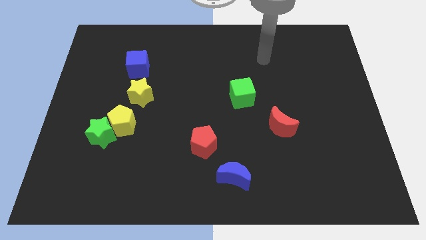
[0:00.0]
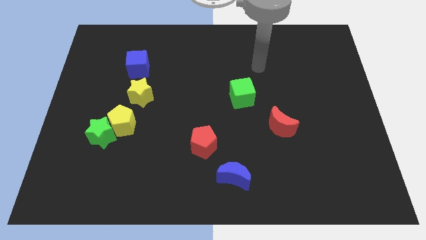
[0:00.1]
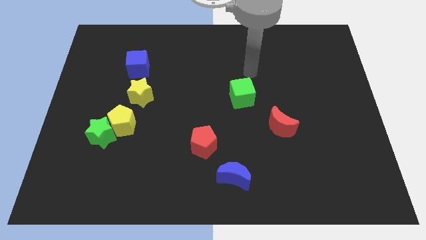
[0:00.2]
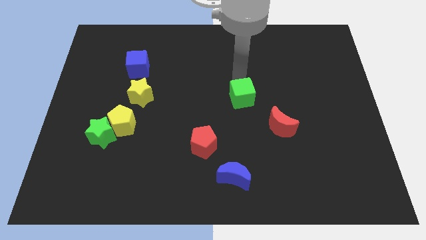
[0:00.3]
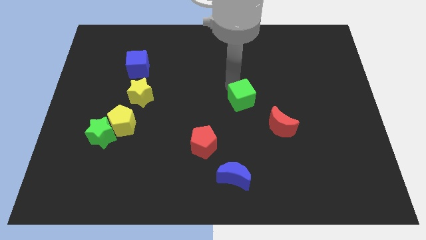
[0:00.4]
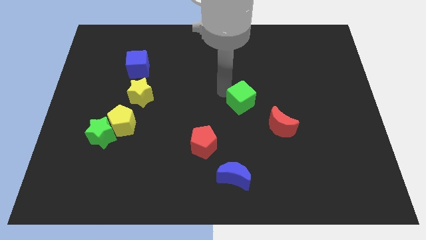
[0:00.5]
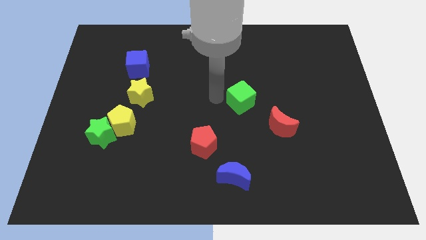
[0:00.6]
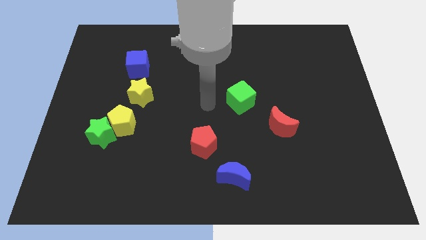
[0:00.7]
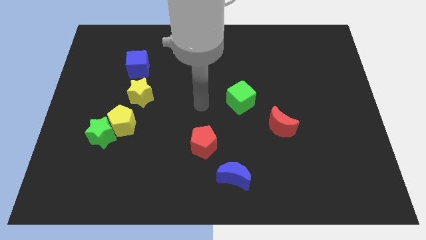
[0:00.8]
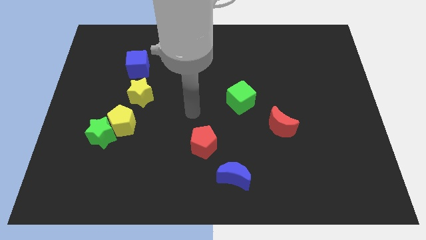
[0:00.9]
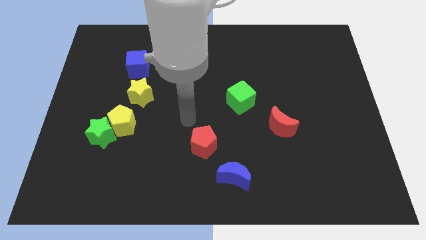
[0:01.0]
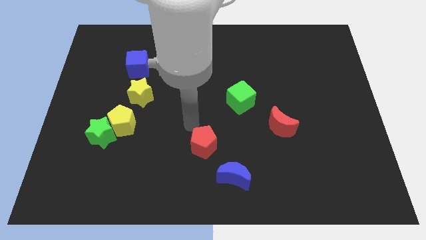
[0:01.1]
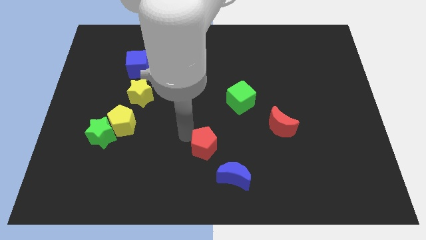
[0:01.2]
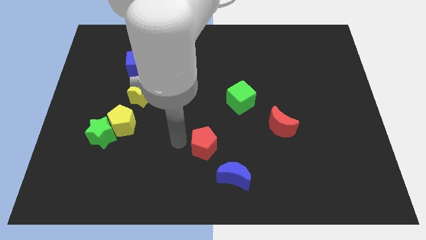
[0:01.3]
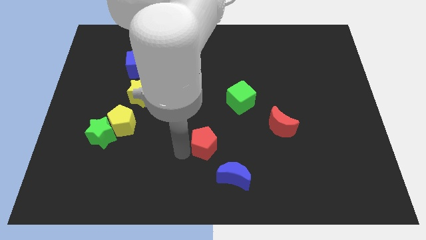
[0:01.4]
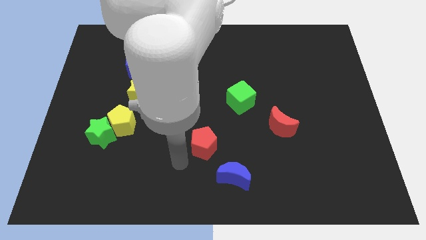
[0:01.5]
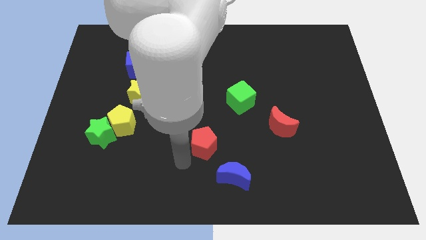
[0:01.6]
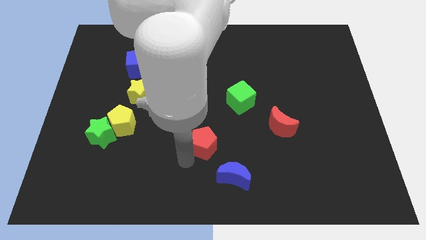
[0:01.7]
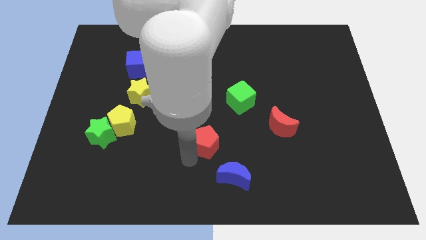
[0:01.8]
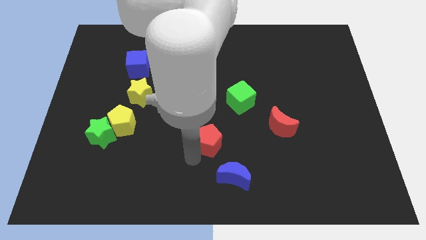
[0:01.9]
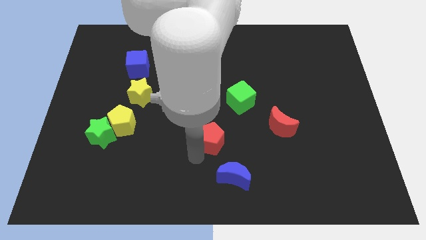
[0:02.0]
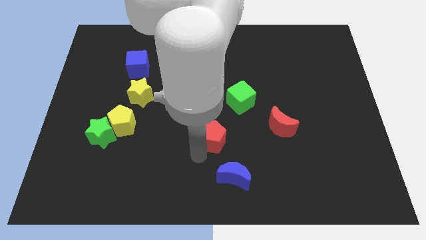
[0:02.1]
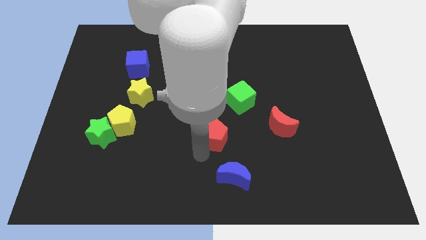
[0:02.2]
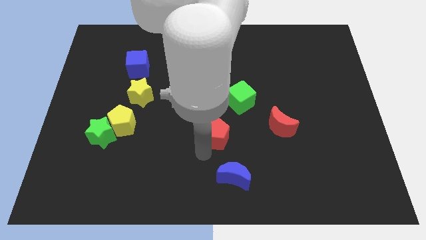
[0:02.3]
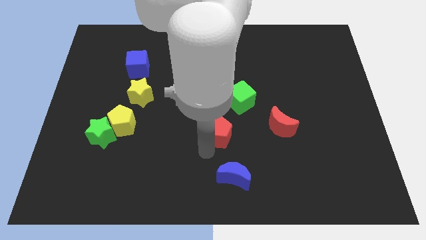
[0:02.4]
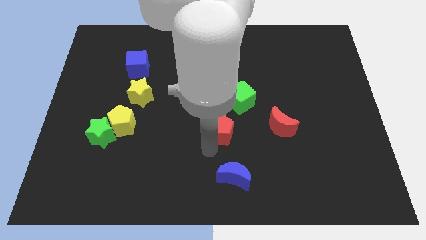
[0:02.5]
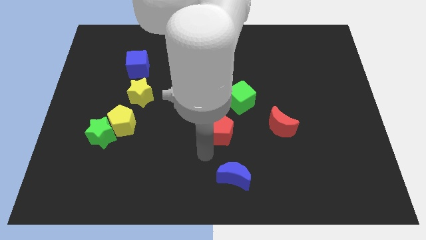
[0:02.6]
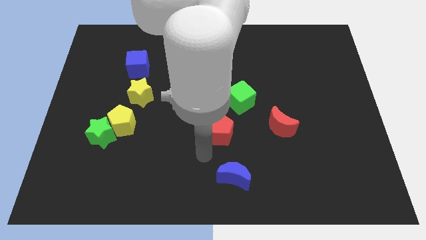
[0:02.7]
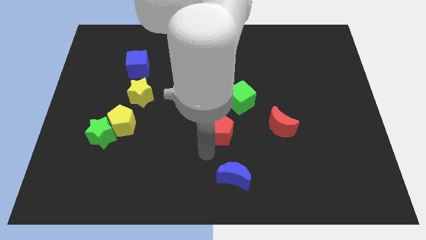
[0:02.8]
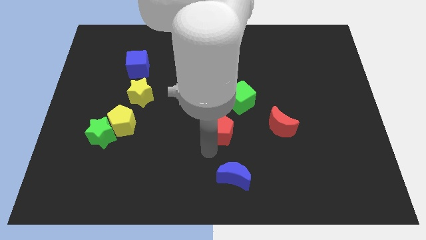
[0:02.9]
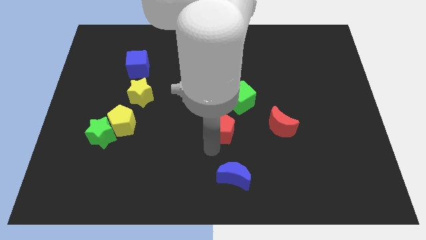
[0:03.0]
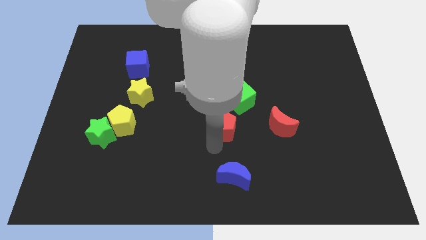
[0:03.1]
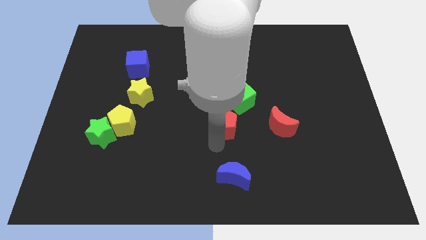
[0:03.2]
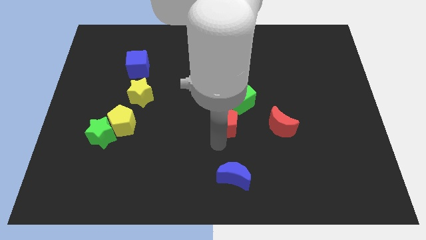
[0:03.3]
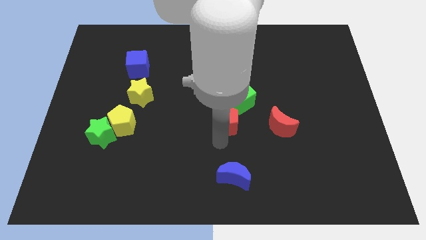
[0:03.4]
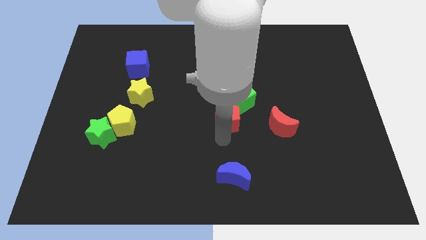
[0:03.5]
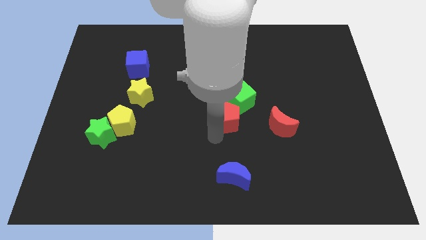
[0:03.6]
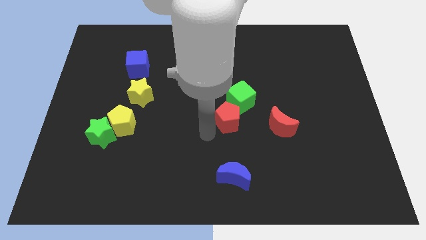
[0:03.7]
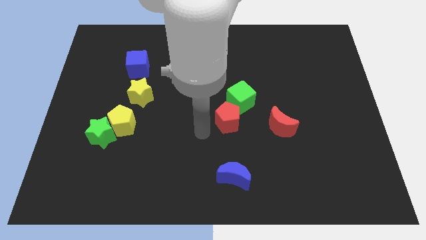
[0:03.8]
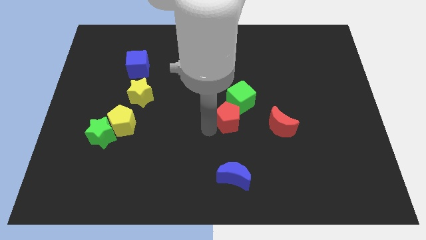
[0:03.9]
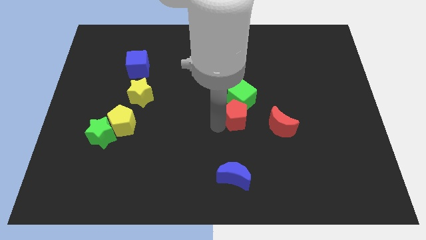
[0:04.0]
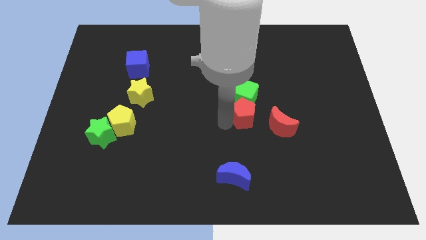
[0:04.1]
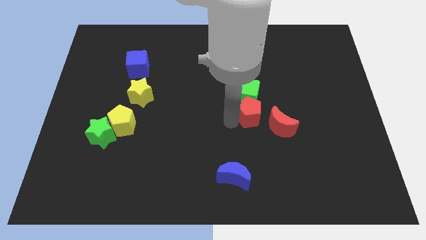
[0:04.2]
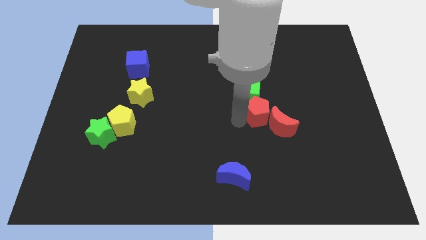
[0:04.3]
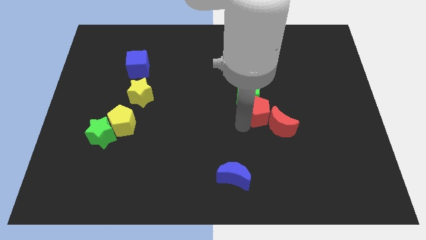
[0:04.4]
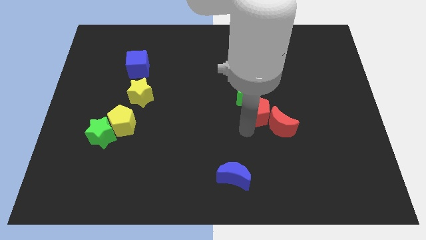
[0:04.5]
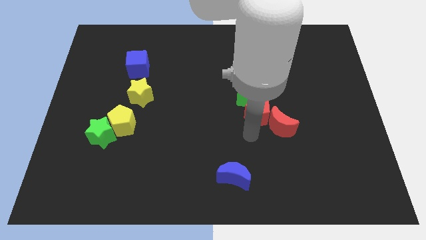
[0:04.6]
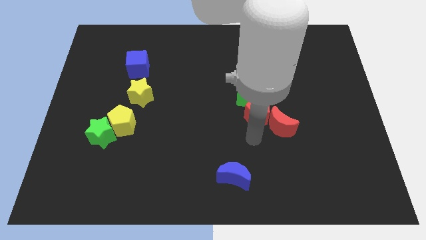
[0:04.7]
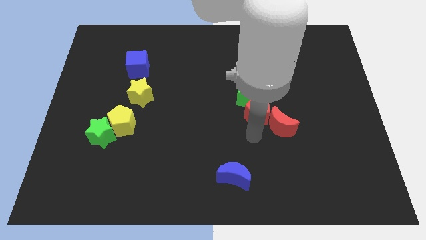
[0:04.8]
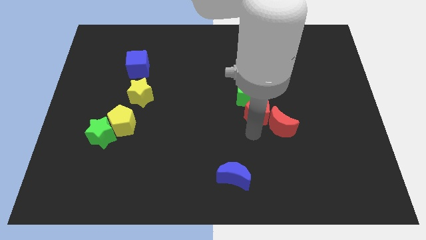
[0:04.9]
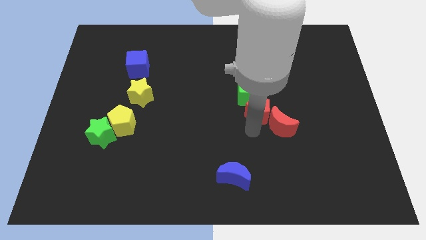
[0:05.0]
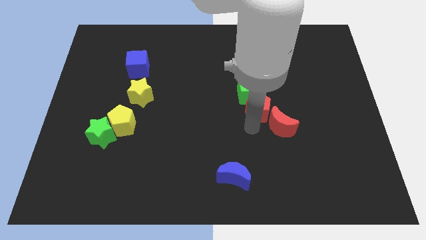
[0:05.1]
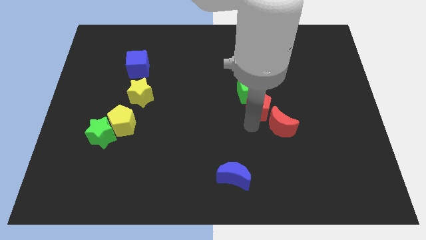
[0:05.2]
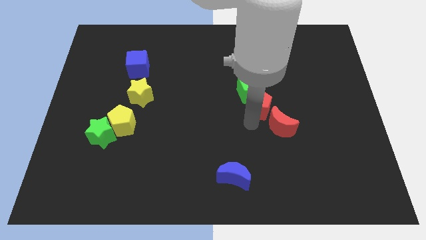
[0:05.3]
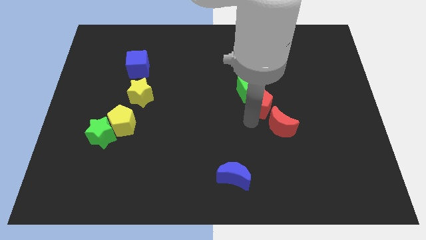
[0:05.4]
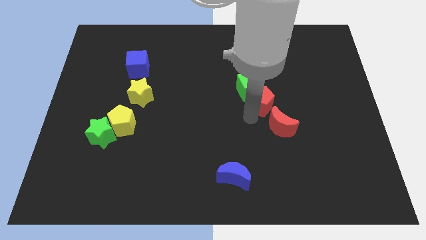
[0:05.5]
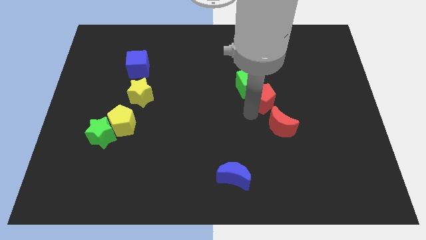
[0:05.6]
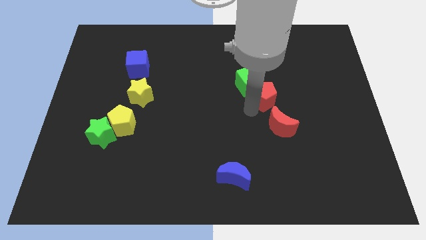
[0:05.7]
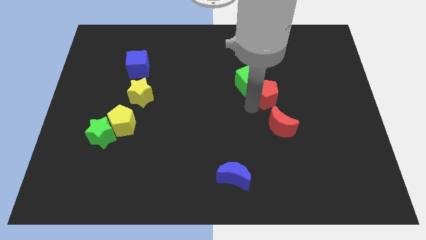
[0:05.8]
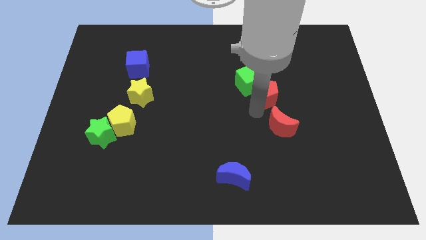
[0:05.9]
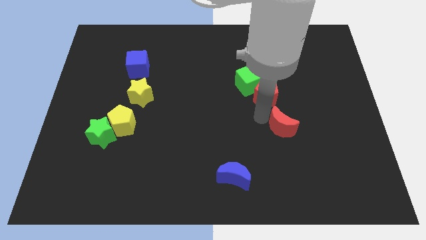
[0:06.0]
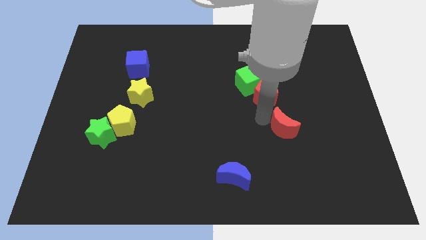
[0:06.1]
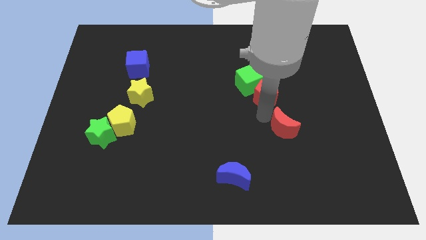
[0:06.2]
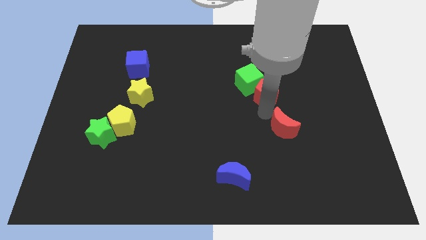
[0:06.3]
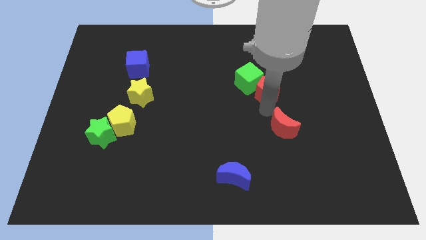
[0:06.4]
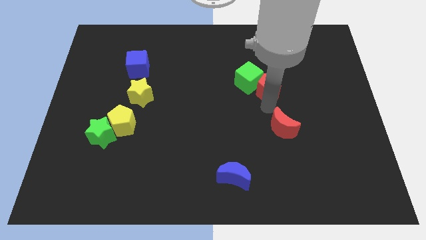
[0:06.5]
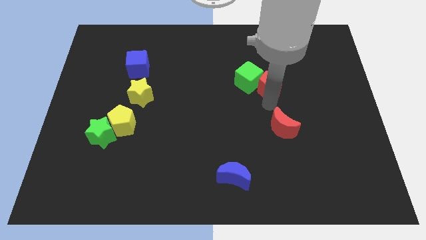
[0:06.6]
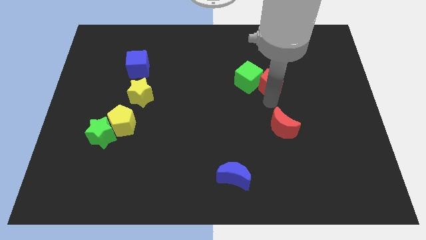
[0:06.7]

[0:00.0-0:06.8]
put the red pentagon to the top right side of the green cube
